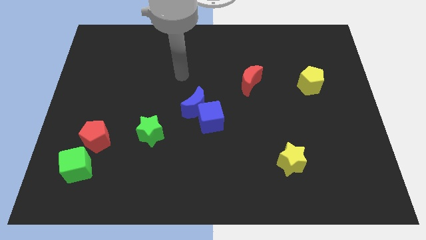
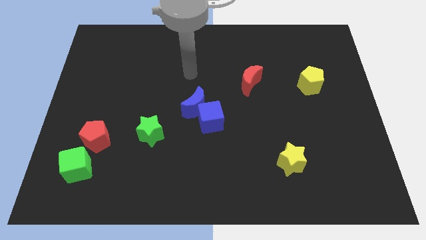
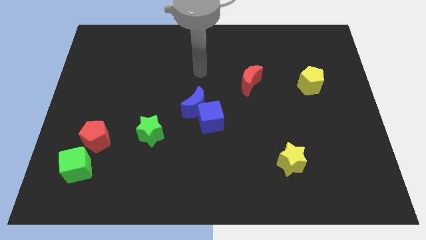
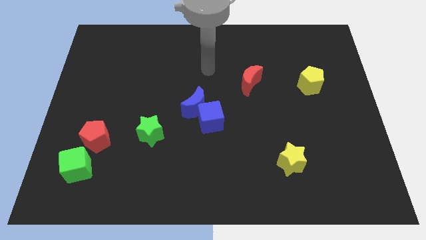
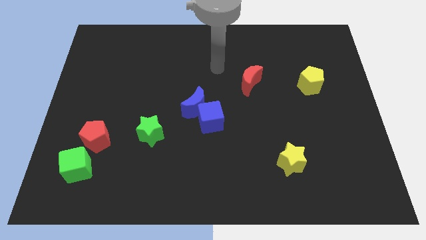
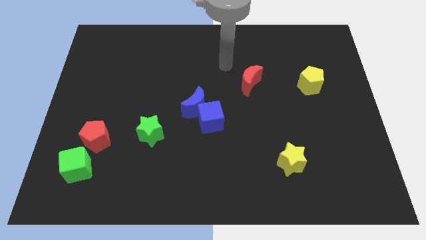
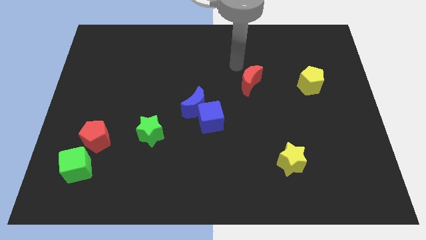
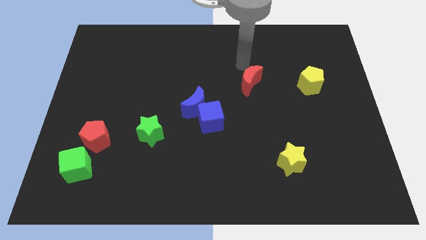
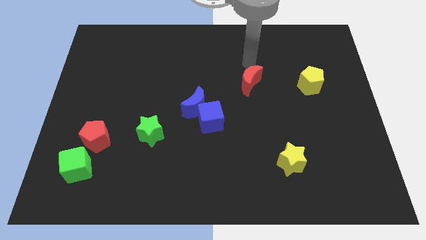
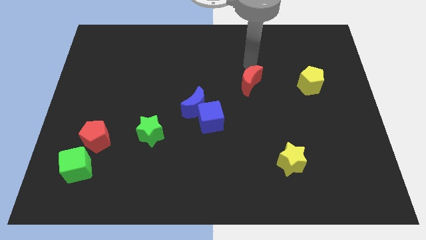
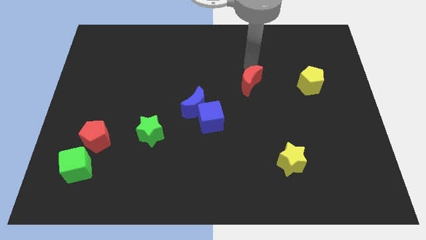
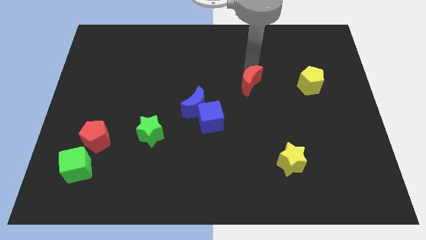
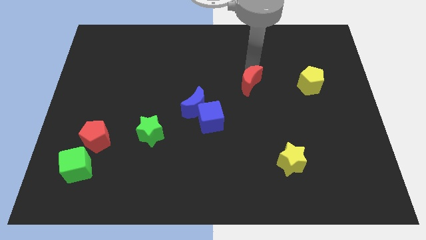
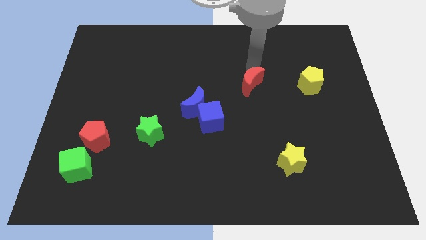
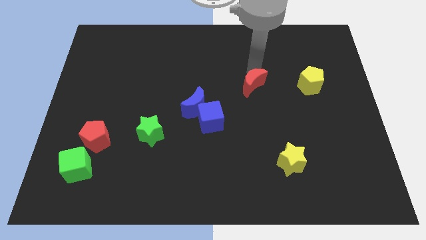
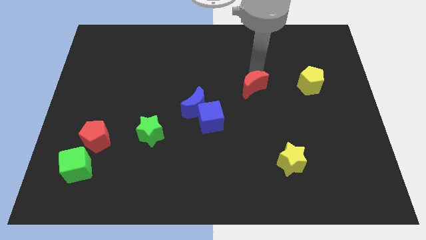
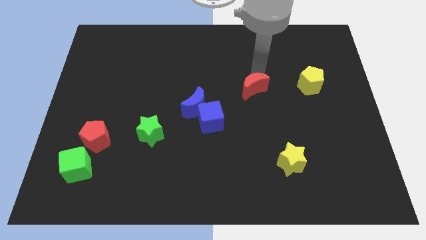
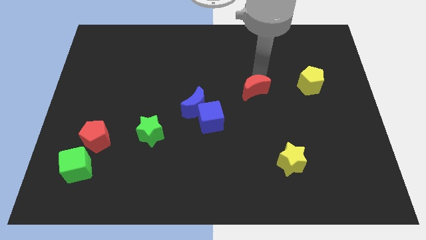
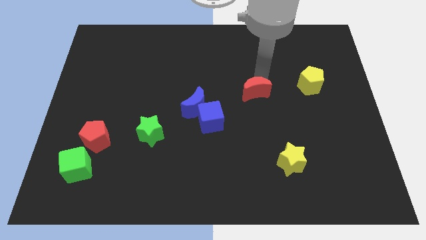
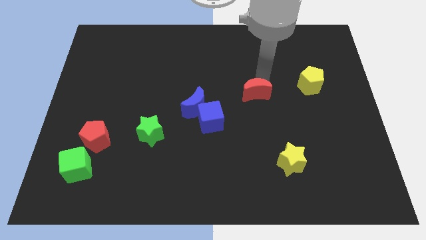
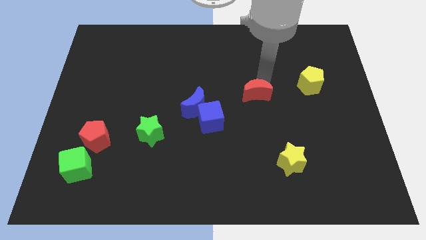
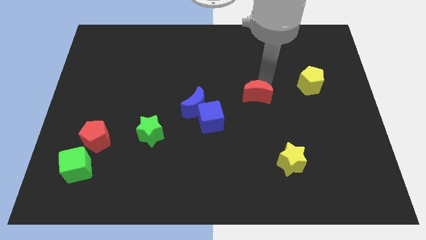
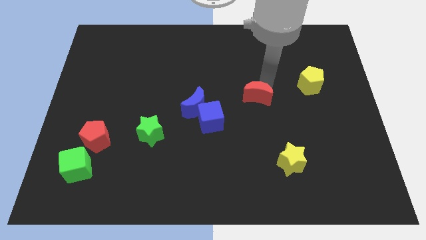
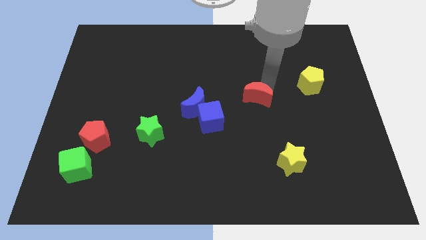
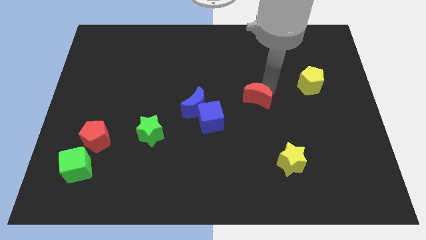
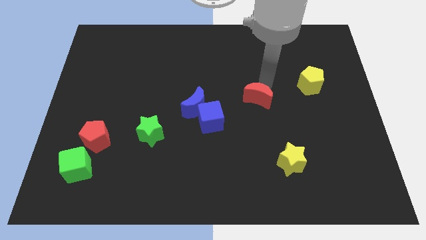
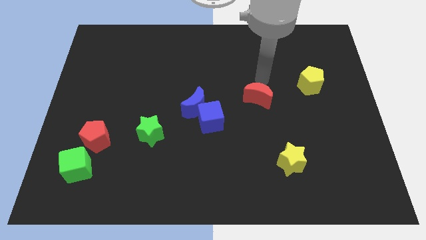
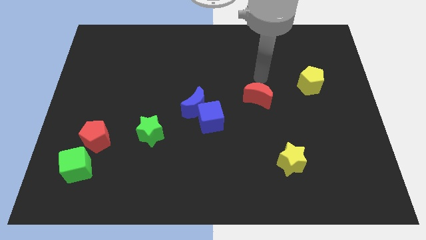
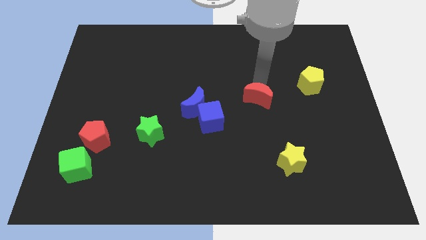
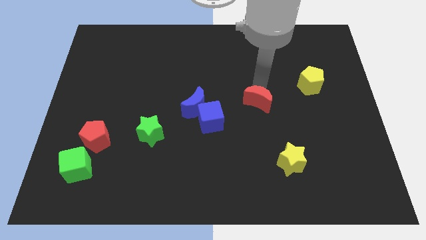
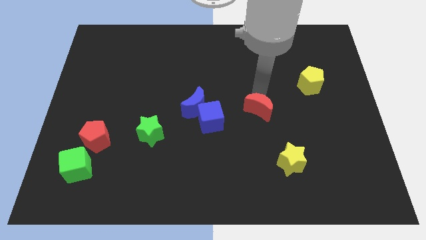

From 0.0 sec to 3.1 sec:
move the red moon downwards a bit

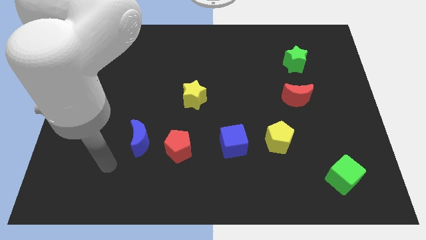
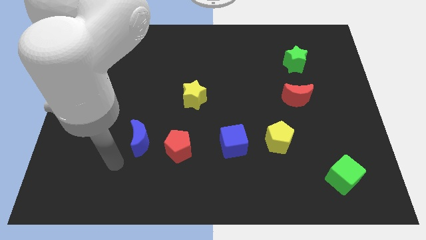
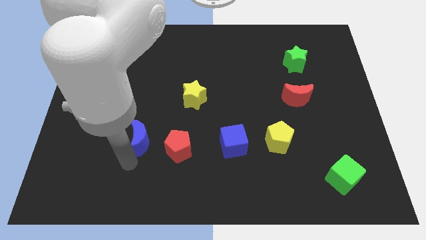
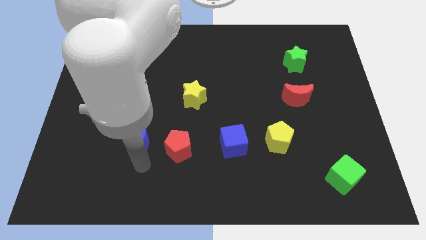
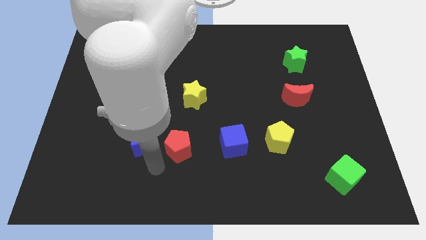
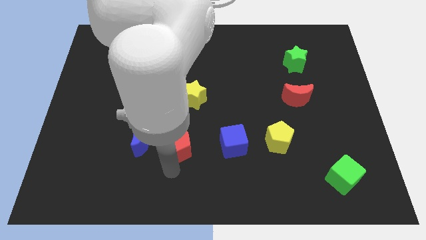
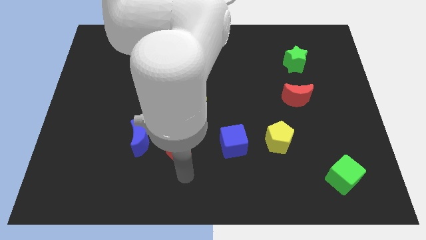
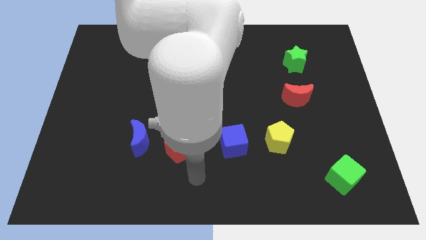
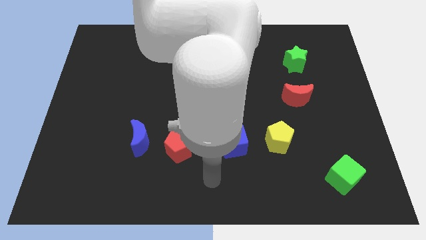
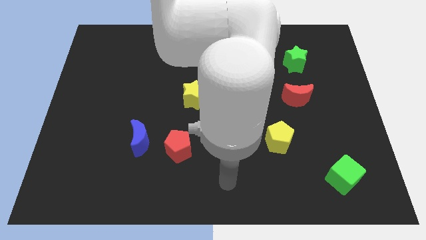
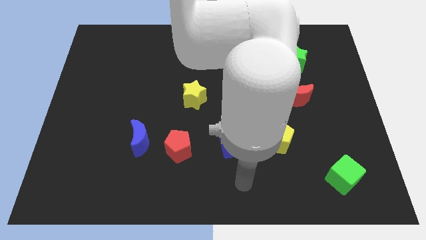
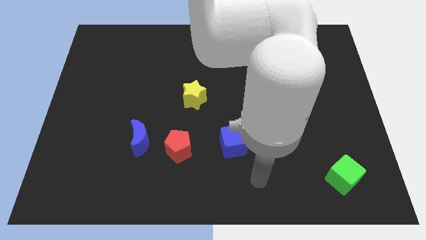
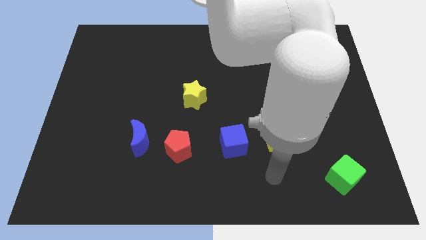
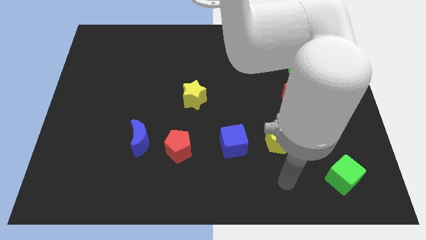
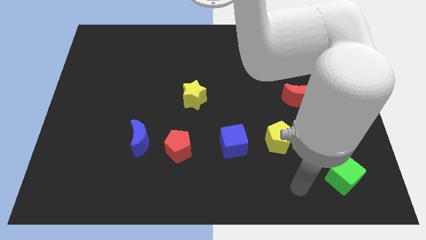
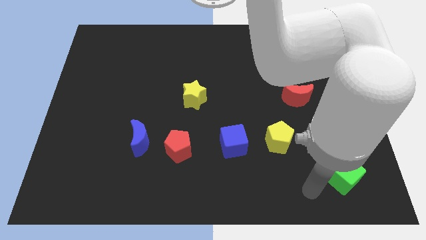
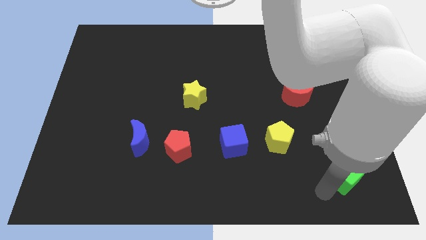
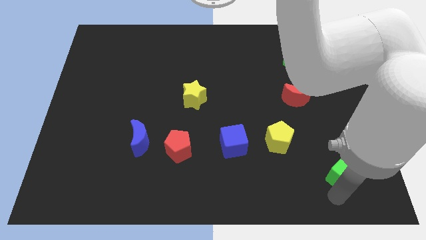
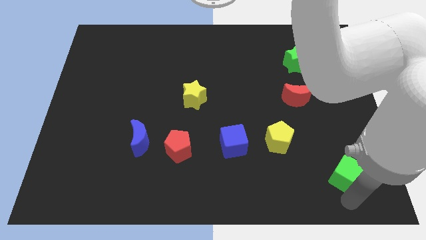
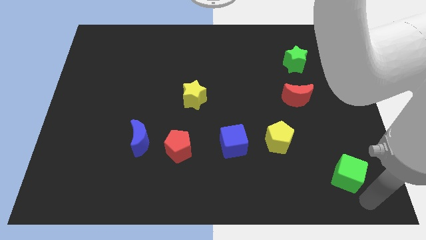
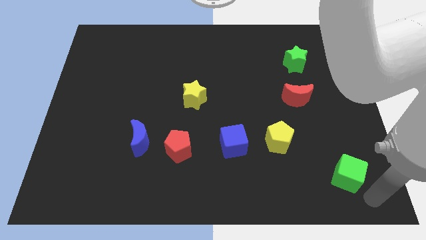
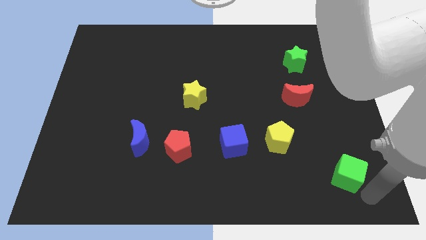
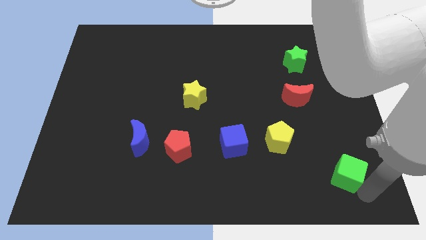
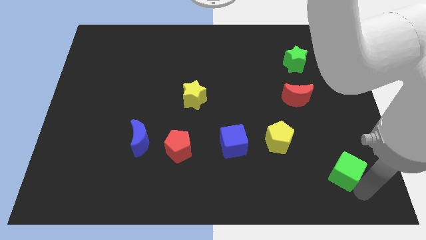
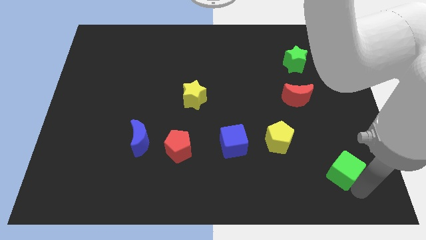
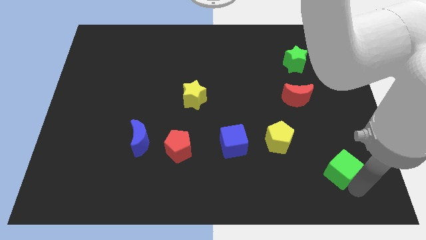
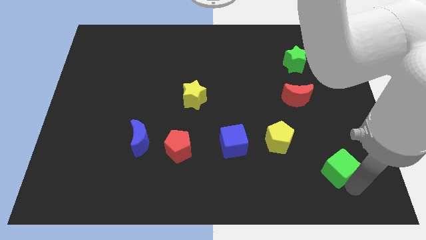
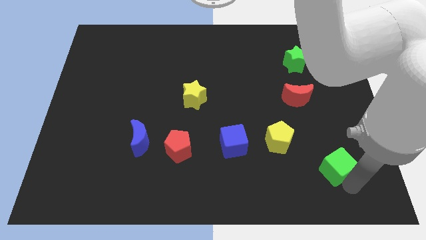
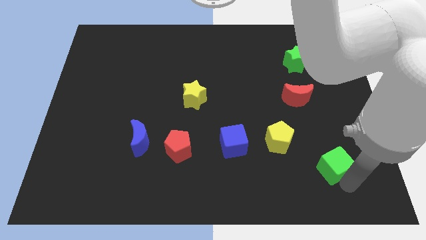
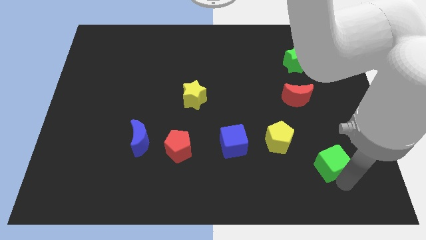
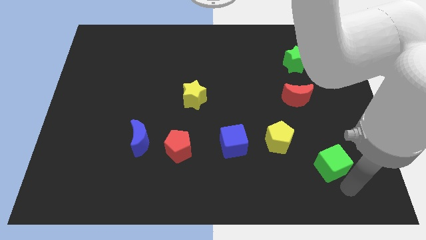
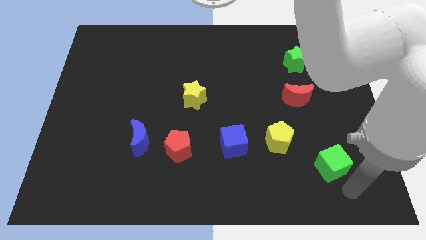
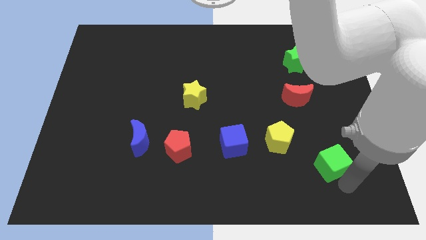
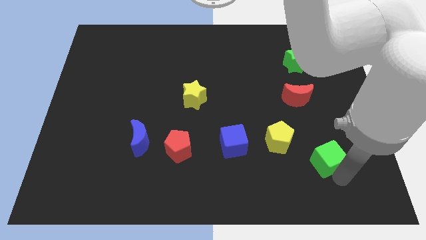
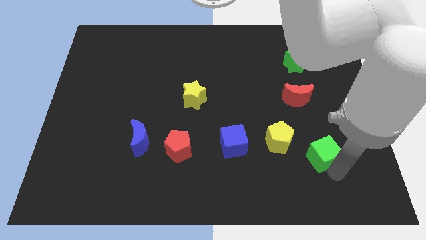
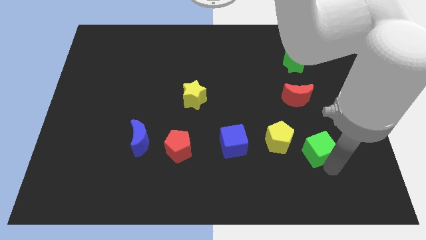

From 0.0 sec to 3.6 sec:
slide the green cube somewhat diagonally up and to the left

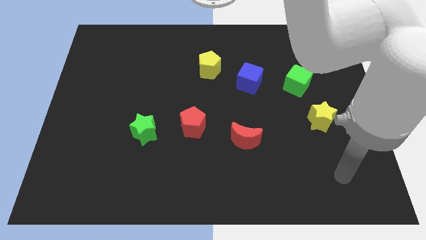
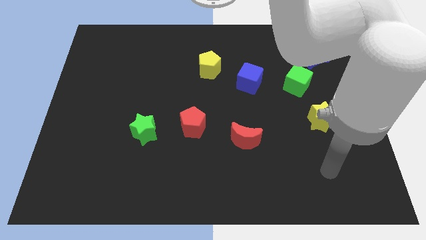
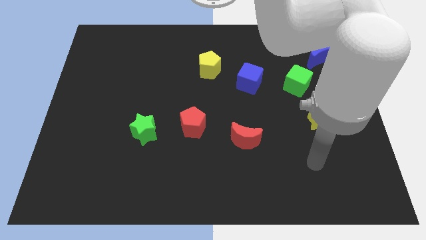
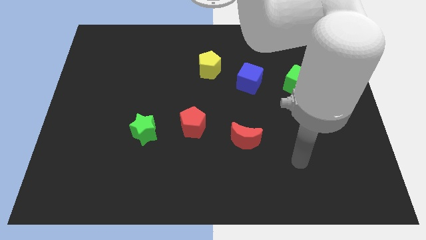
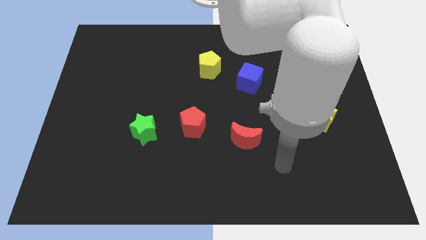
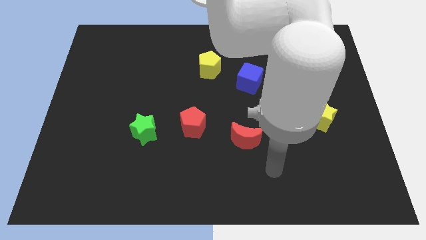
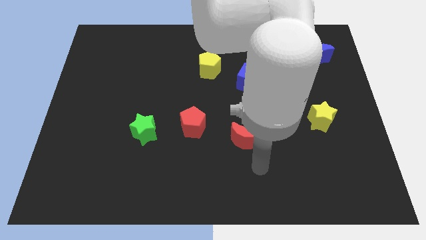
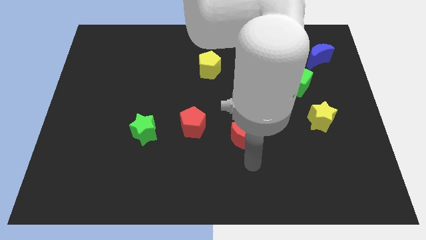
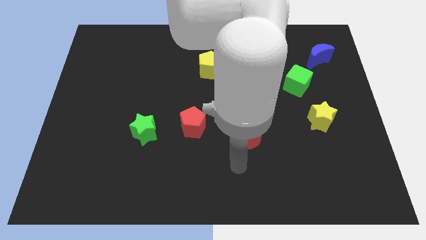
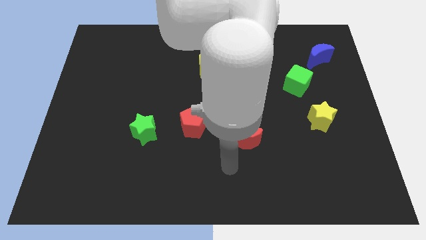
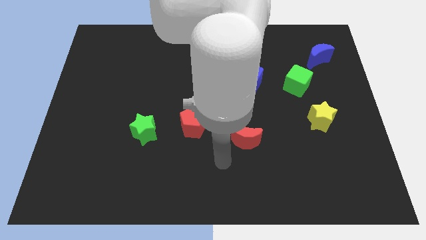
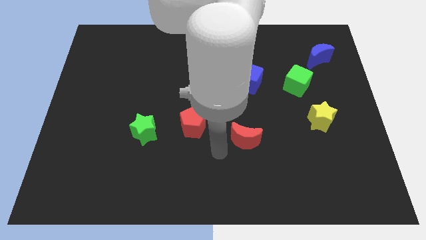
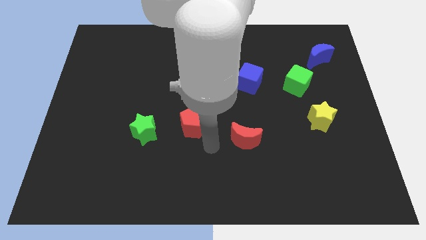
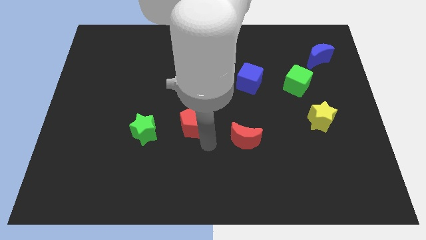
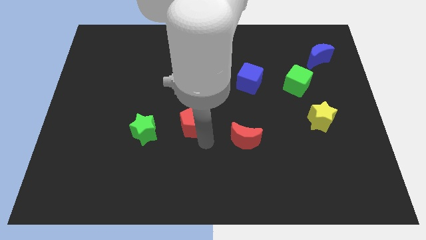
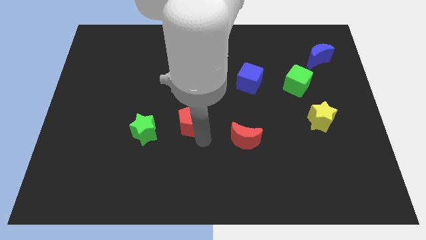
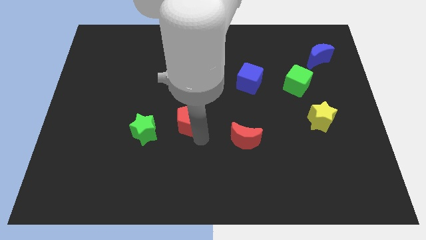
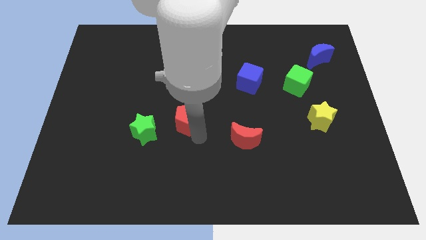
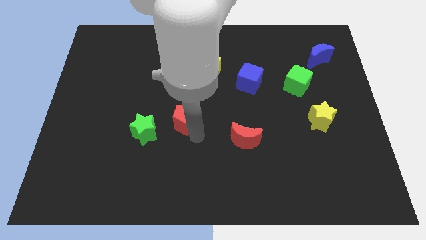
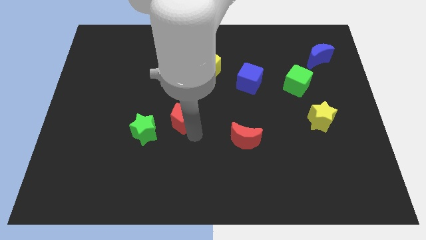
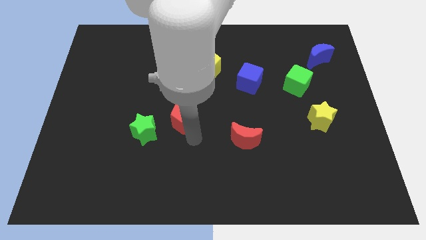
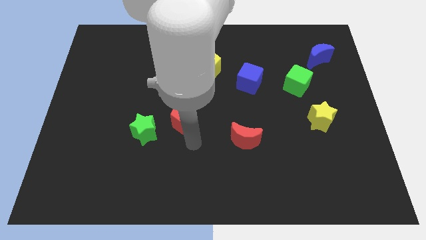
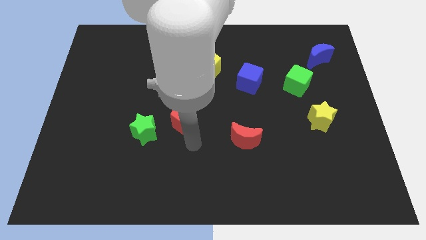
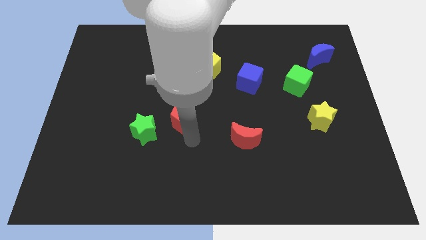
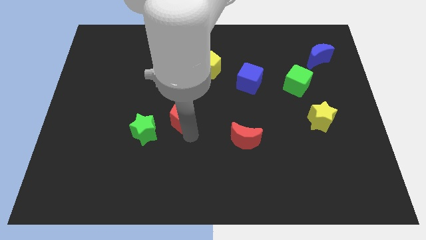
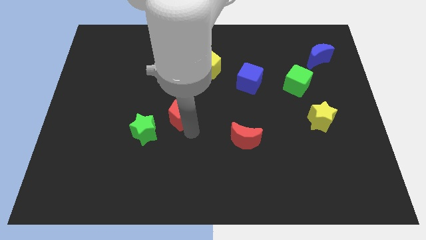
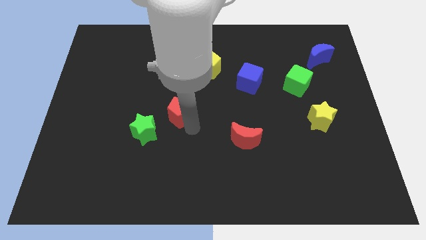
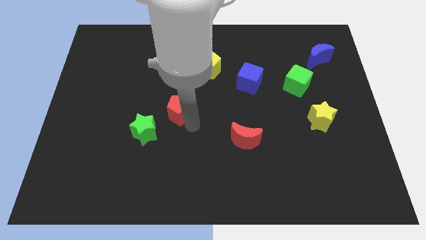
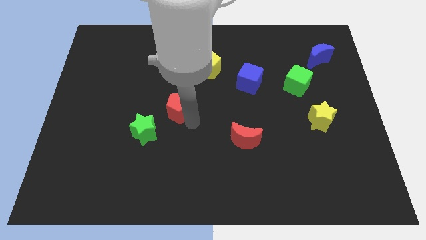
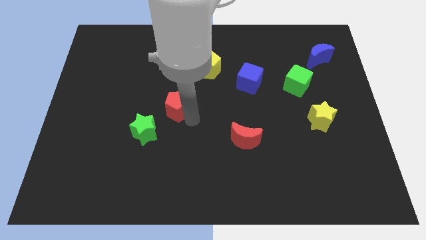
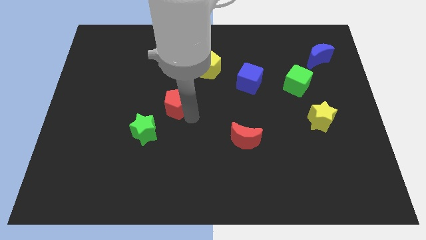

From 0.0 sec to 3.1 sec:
push the red pentagon a little upwards and to the left
